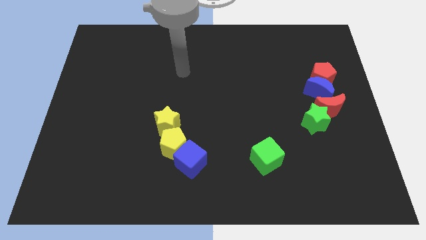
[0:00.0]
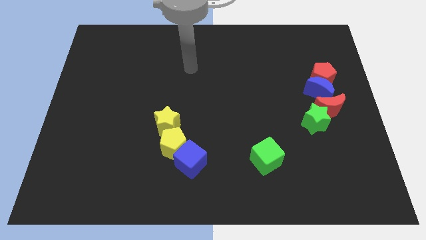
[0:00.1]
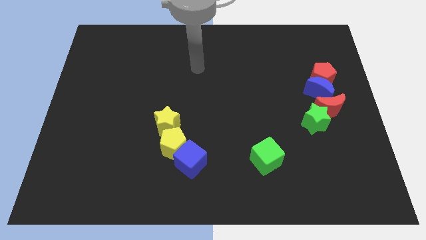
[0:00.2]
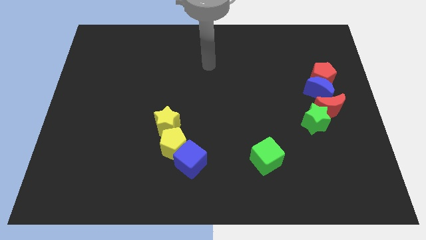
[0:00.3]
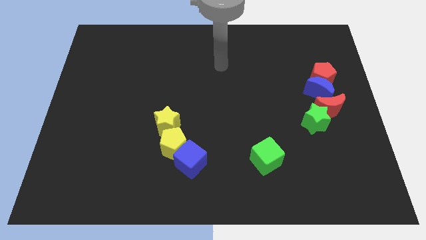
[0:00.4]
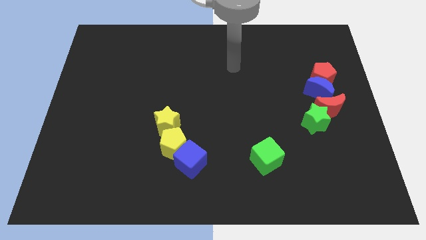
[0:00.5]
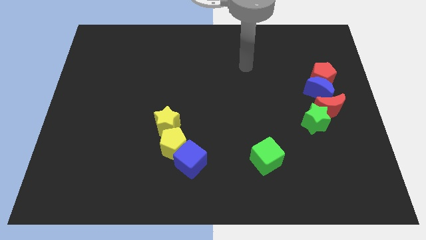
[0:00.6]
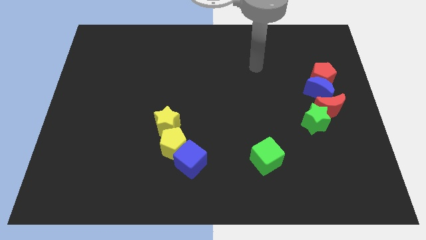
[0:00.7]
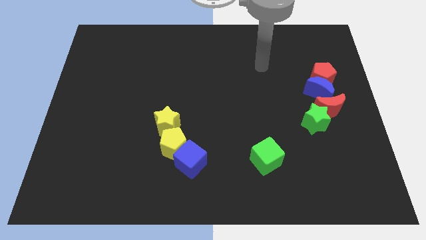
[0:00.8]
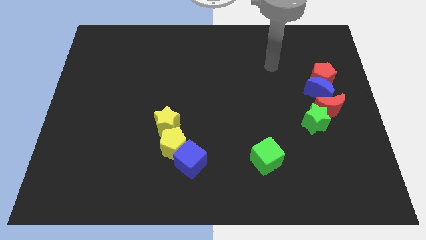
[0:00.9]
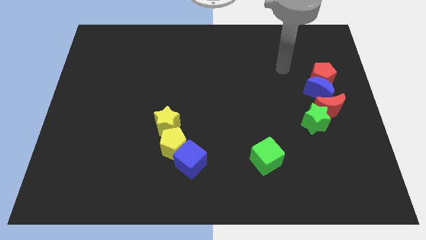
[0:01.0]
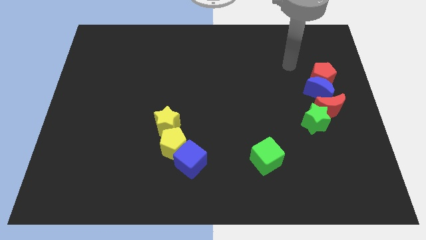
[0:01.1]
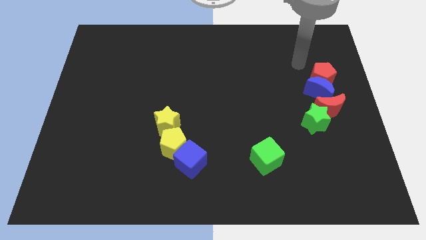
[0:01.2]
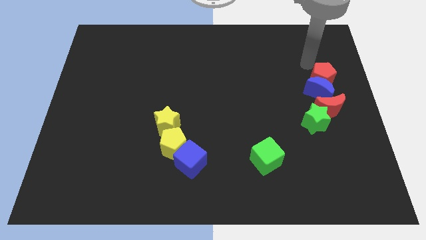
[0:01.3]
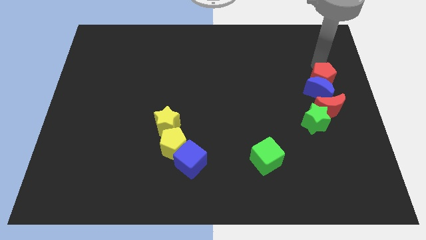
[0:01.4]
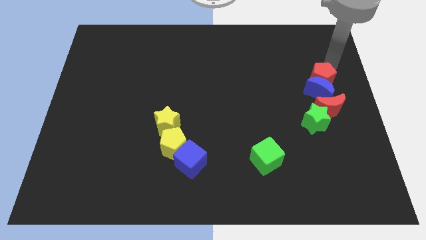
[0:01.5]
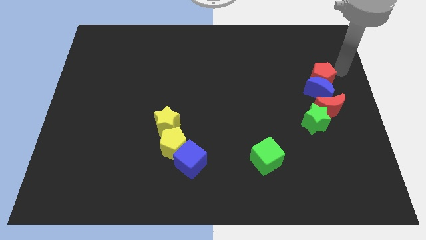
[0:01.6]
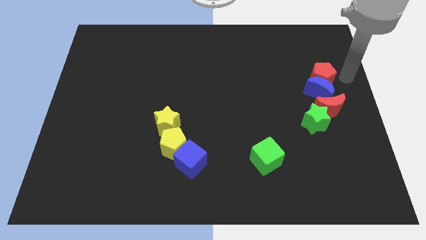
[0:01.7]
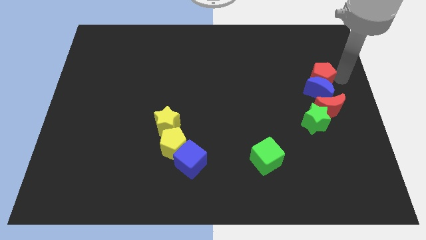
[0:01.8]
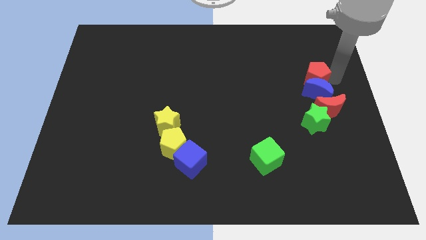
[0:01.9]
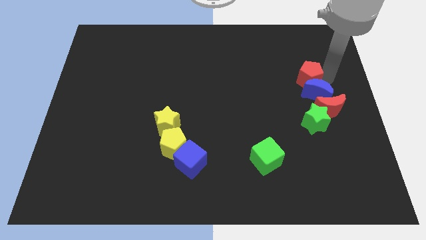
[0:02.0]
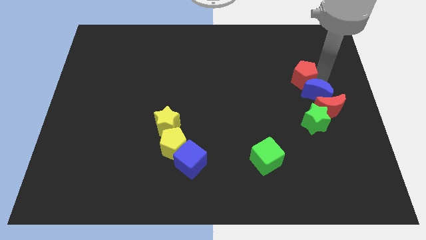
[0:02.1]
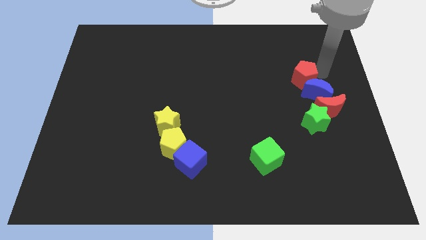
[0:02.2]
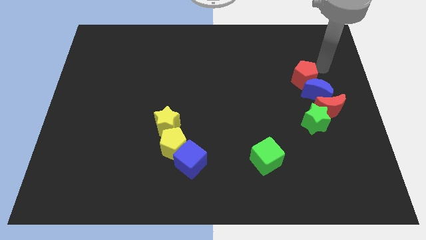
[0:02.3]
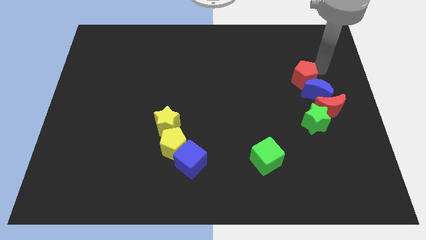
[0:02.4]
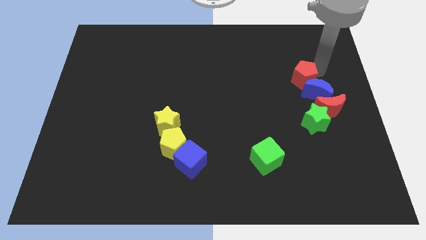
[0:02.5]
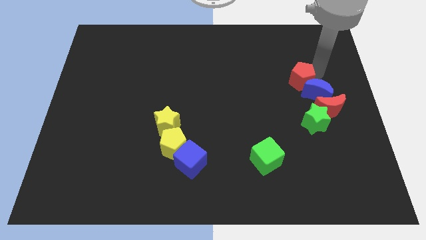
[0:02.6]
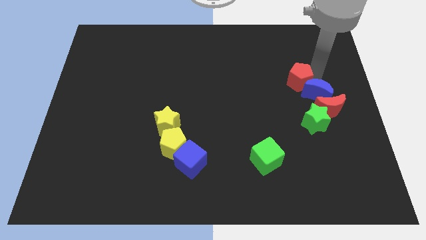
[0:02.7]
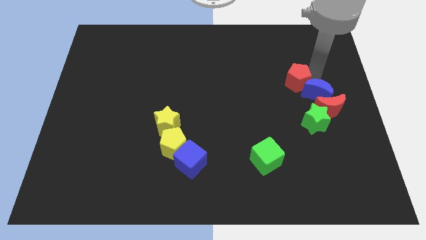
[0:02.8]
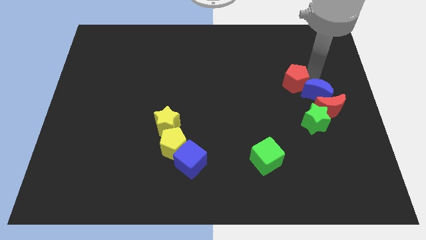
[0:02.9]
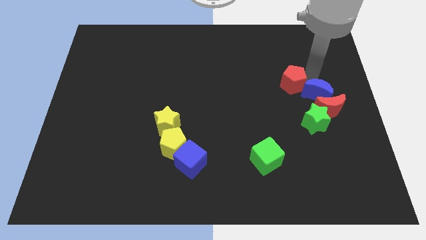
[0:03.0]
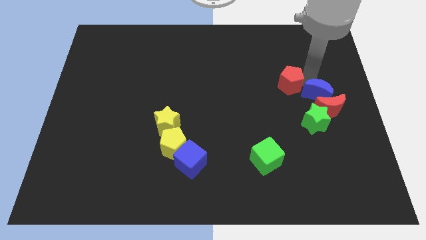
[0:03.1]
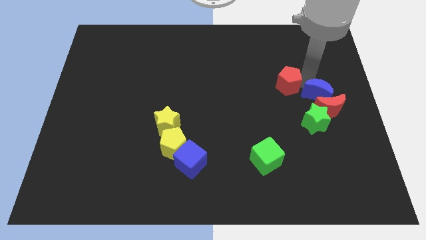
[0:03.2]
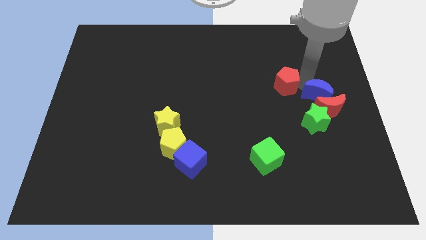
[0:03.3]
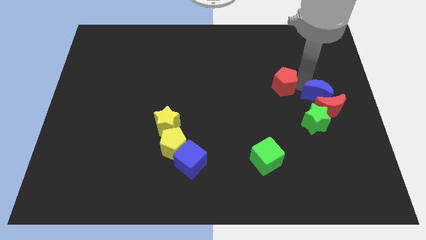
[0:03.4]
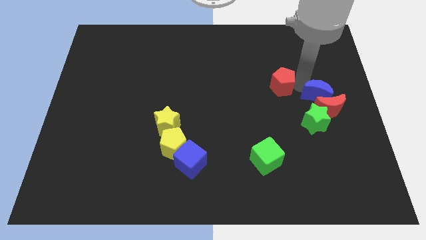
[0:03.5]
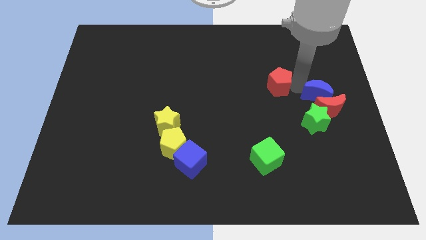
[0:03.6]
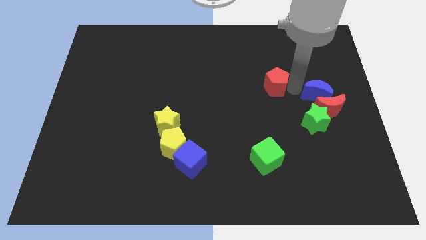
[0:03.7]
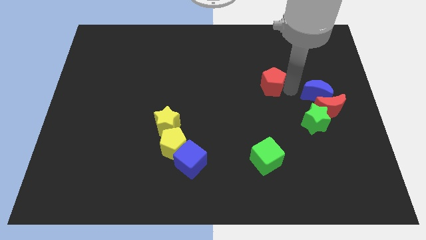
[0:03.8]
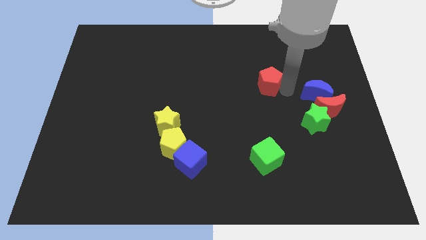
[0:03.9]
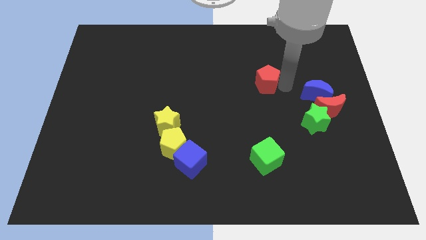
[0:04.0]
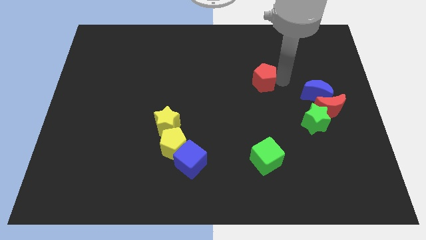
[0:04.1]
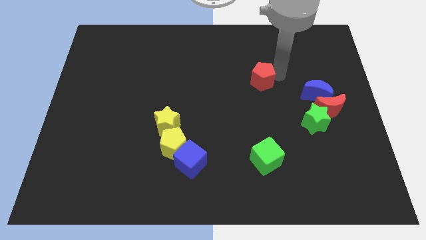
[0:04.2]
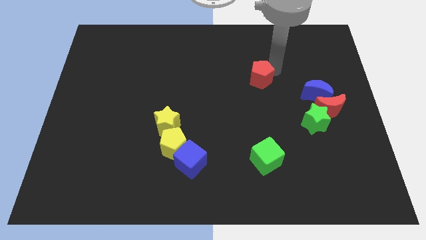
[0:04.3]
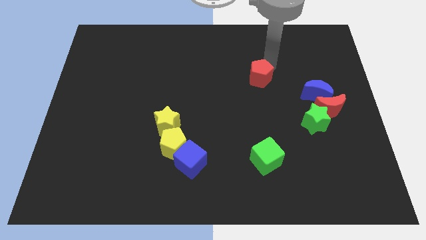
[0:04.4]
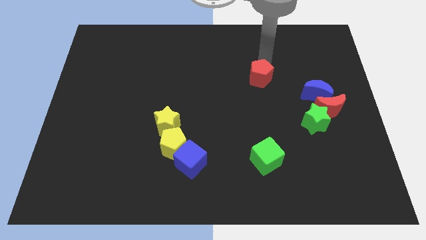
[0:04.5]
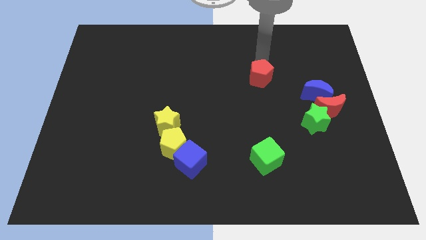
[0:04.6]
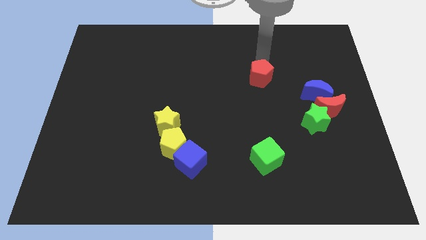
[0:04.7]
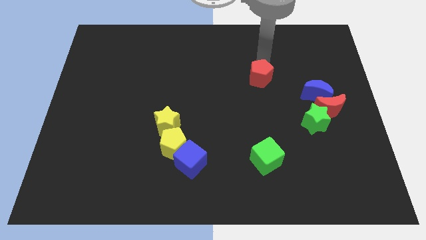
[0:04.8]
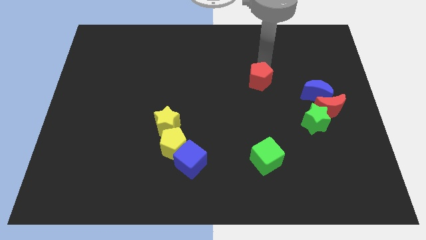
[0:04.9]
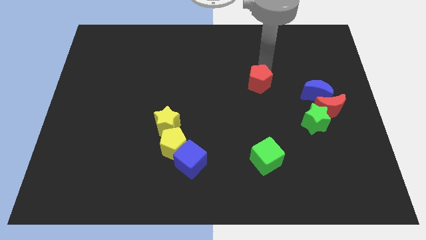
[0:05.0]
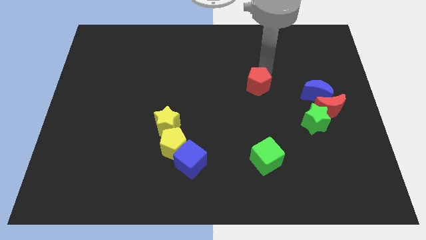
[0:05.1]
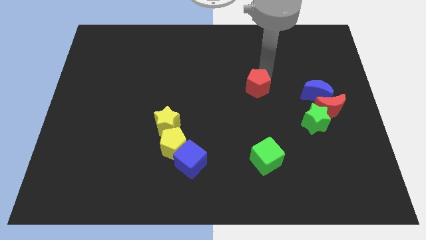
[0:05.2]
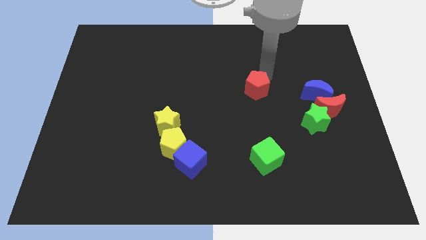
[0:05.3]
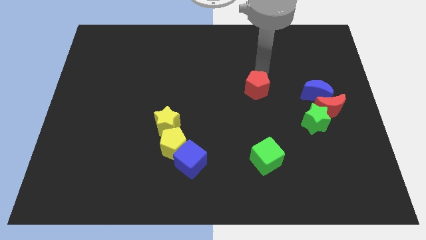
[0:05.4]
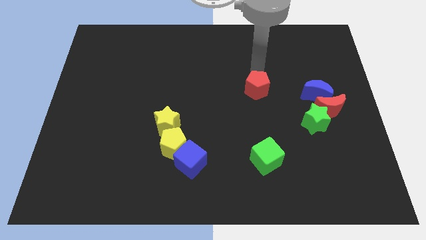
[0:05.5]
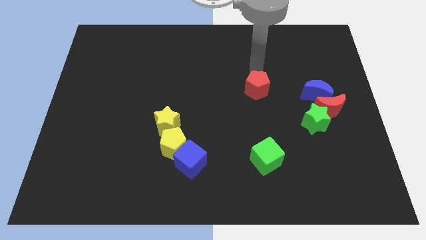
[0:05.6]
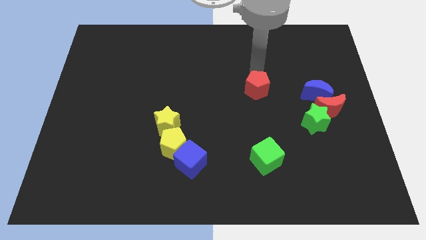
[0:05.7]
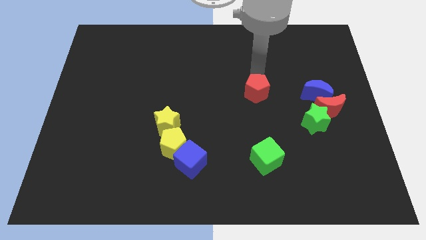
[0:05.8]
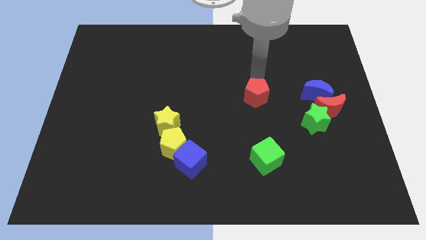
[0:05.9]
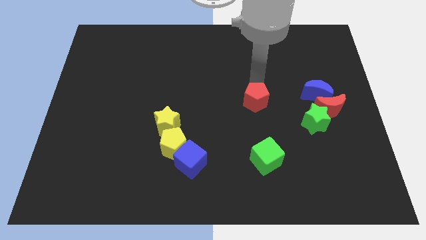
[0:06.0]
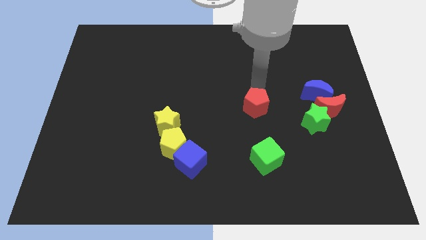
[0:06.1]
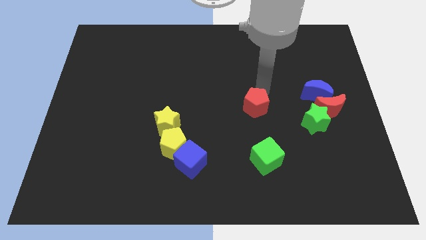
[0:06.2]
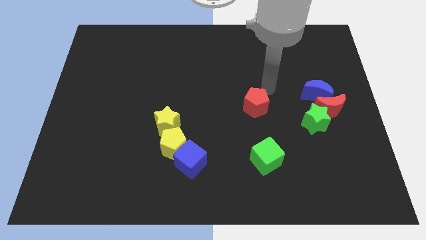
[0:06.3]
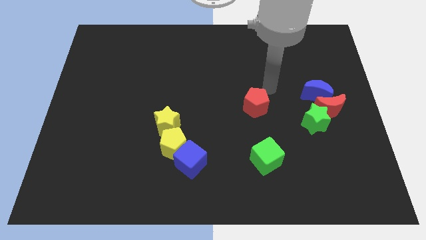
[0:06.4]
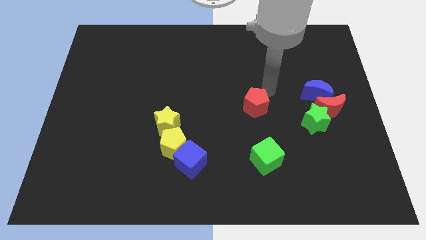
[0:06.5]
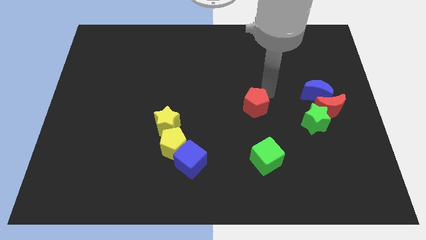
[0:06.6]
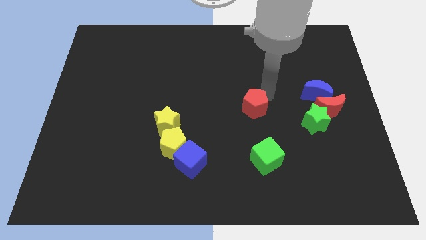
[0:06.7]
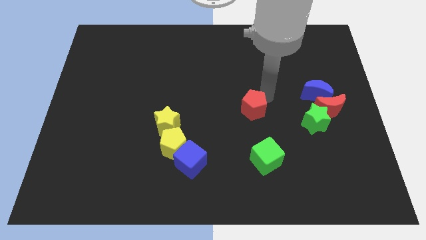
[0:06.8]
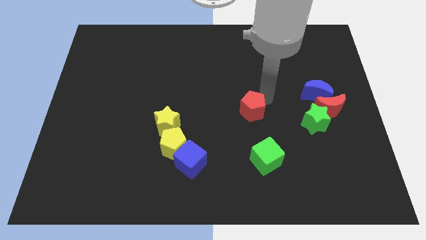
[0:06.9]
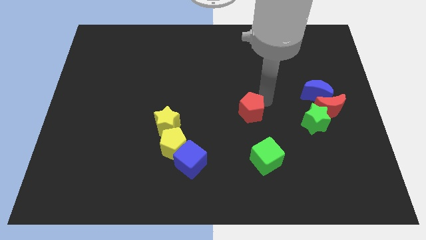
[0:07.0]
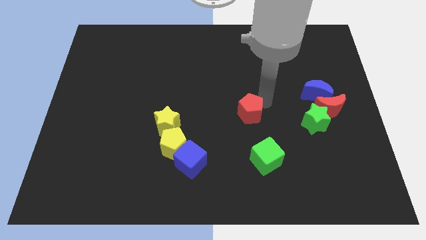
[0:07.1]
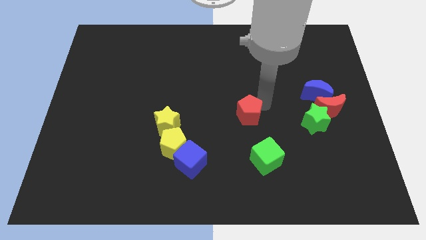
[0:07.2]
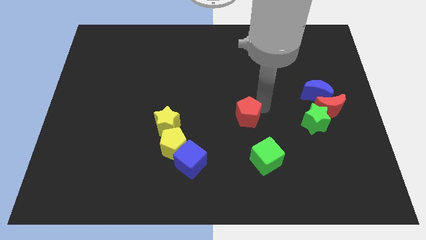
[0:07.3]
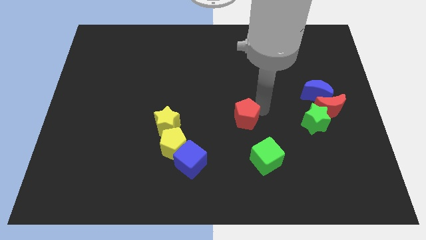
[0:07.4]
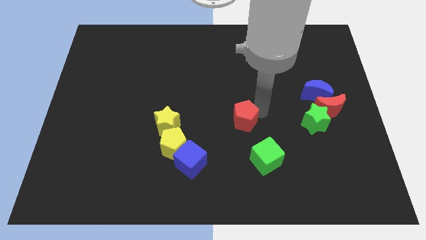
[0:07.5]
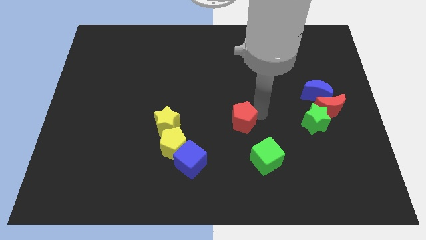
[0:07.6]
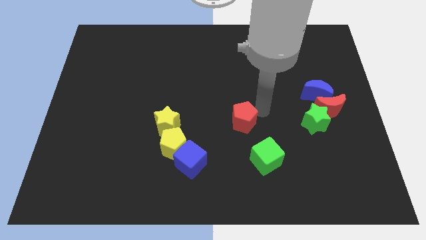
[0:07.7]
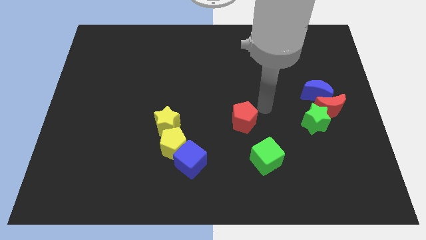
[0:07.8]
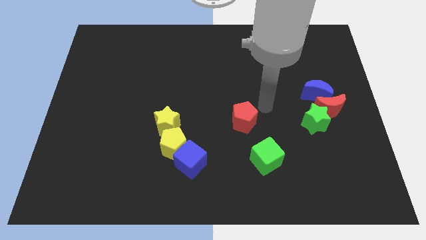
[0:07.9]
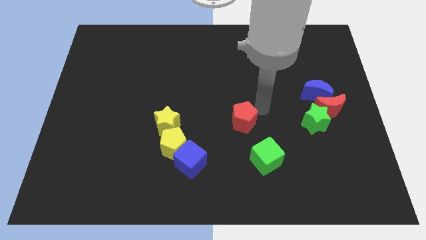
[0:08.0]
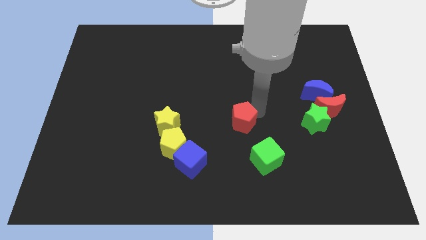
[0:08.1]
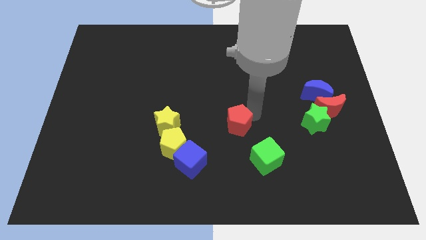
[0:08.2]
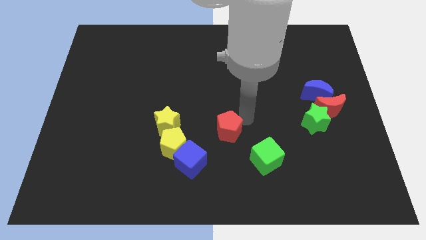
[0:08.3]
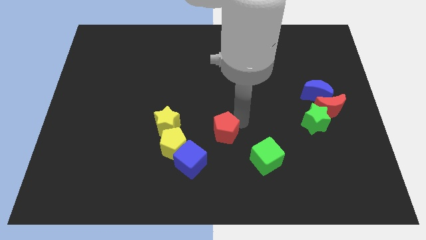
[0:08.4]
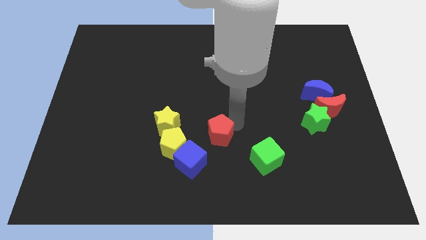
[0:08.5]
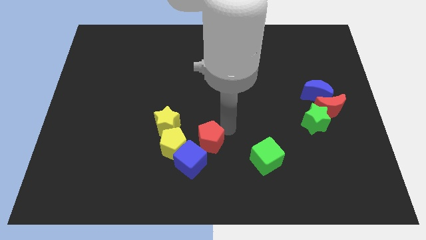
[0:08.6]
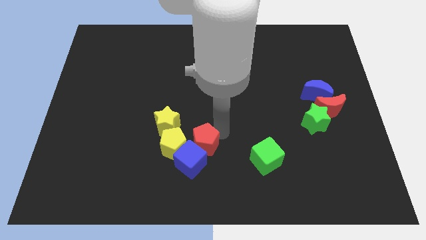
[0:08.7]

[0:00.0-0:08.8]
put the red pentagon close to the blue cube
